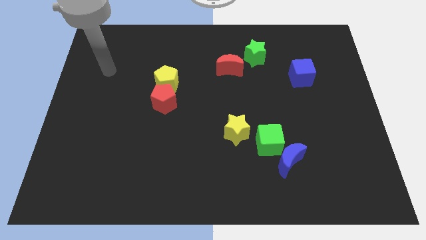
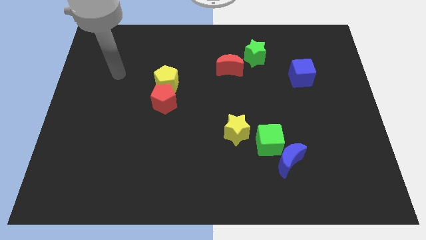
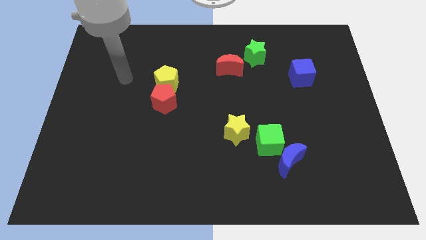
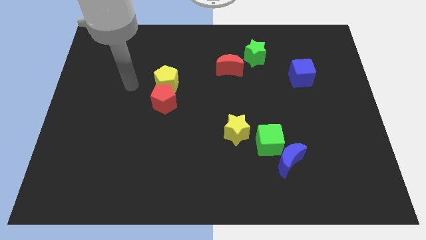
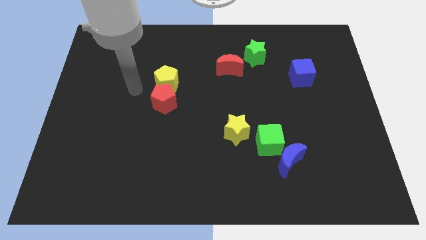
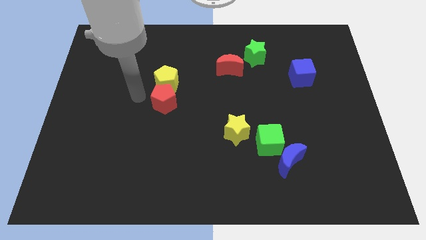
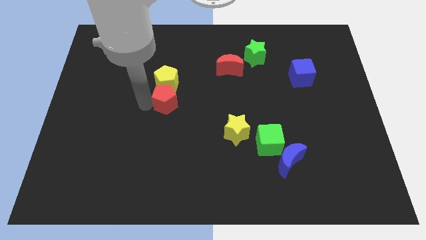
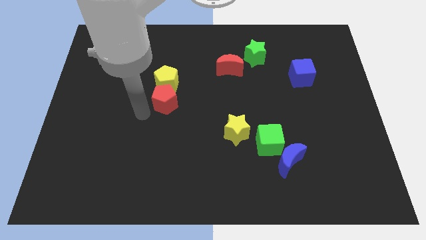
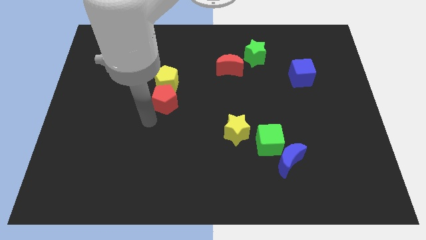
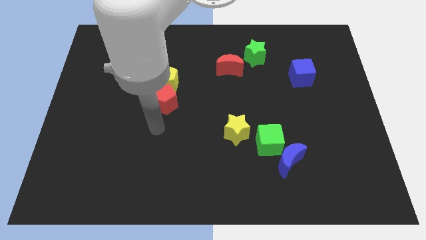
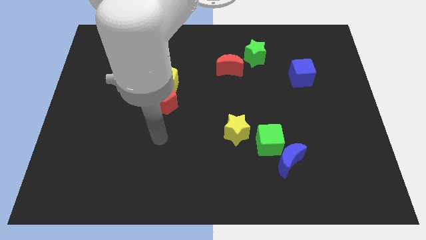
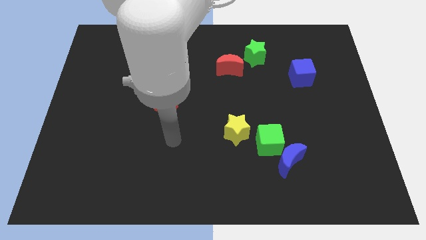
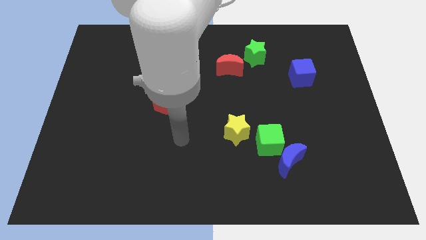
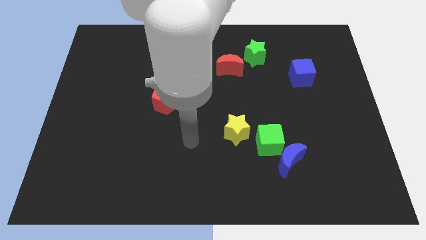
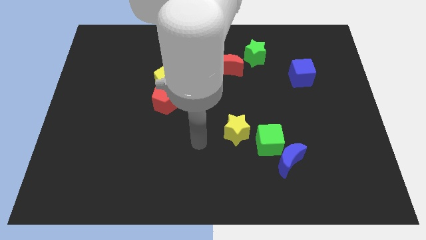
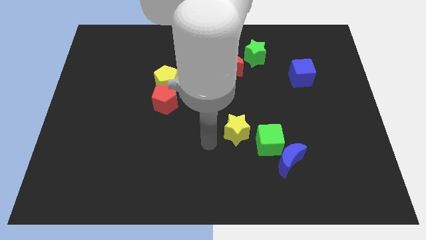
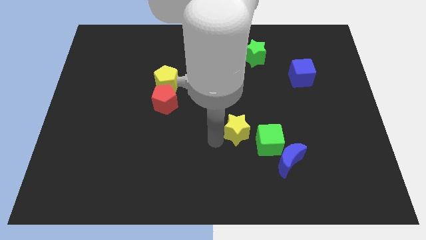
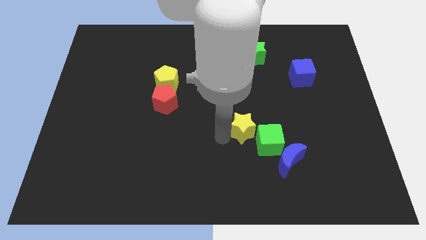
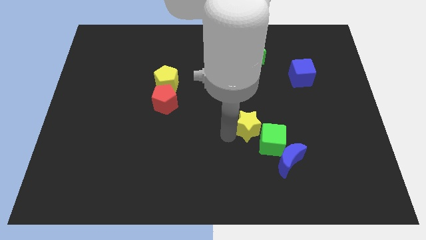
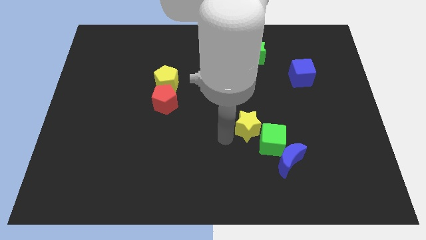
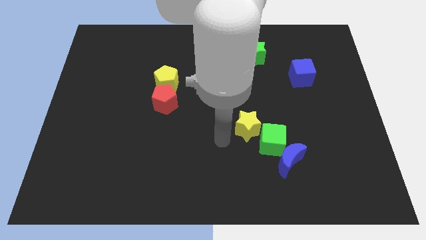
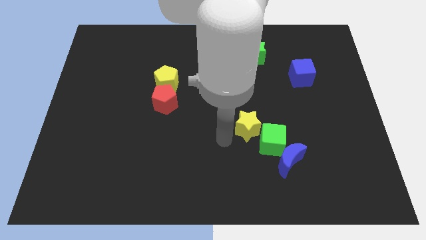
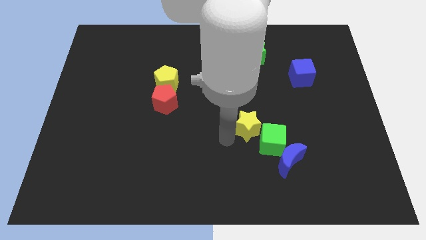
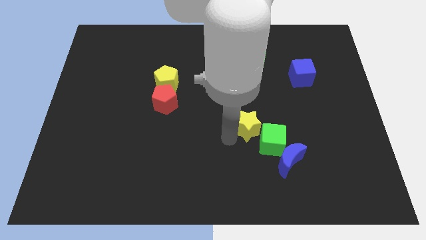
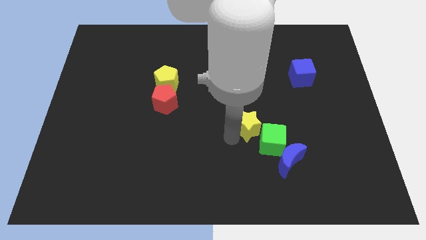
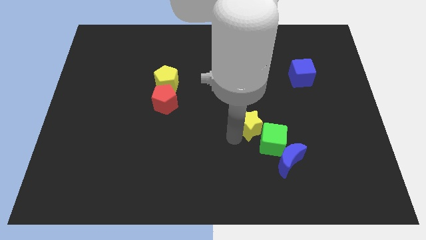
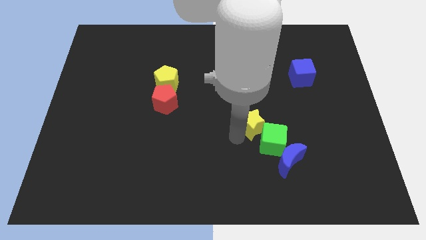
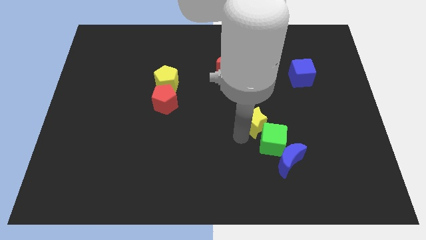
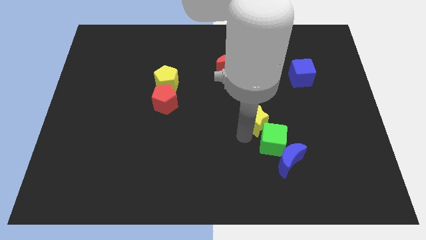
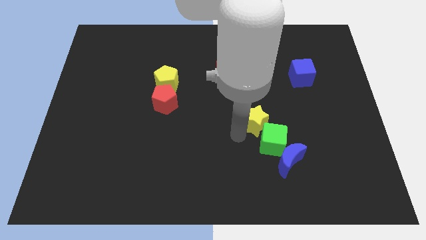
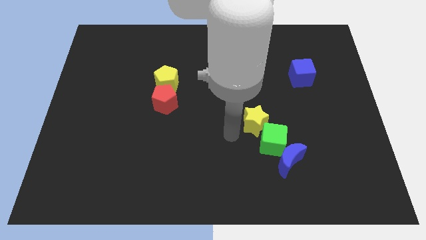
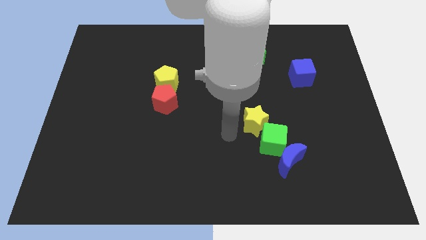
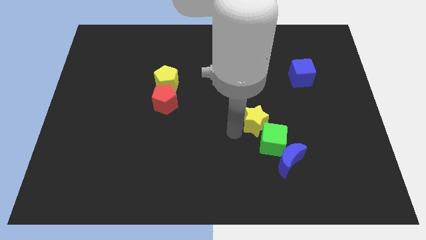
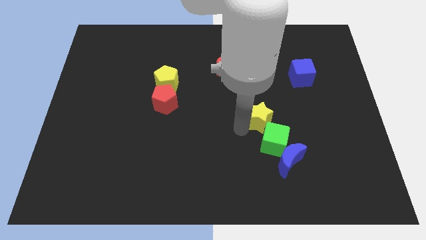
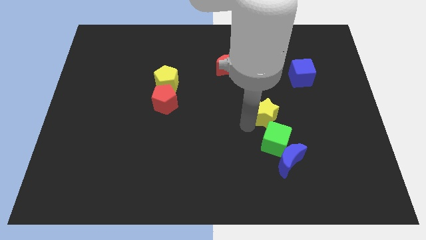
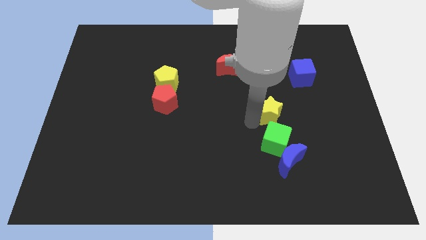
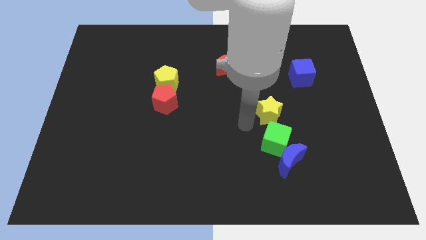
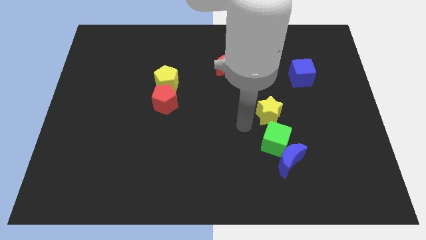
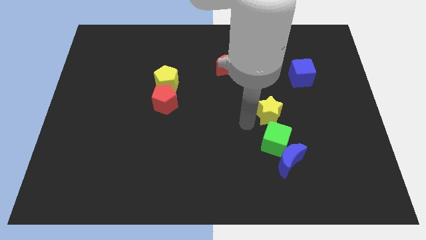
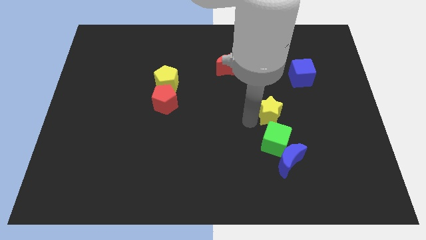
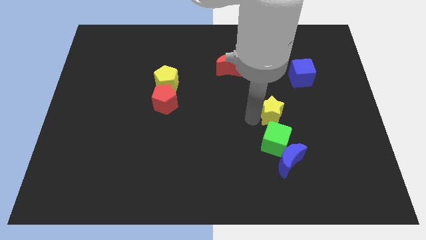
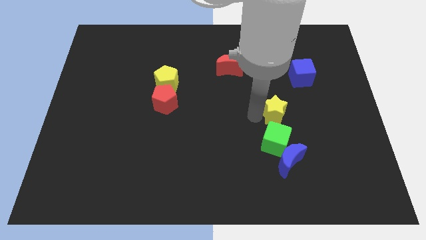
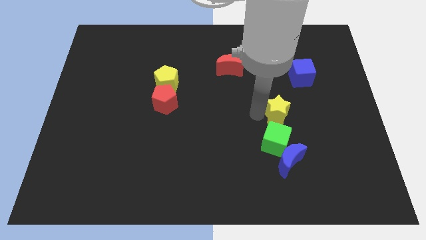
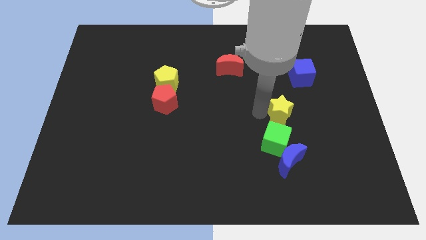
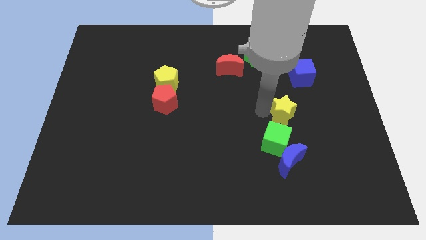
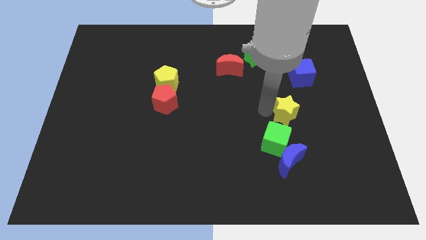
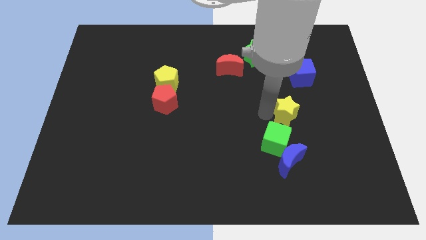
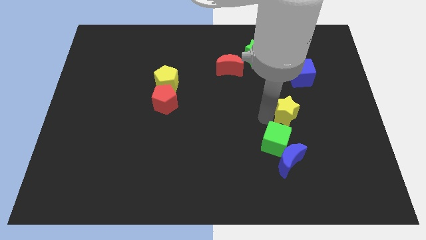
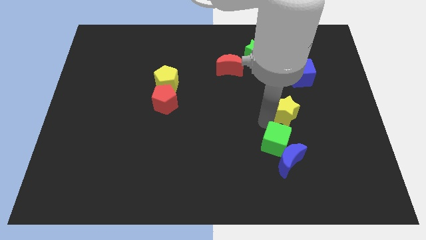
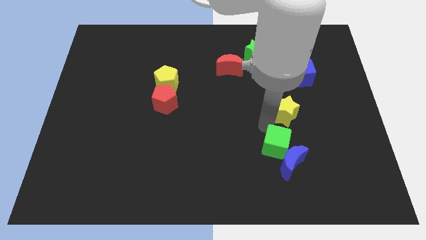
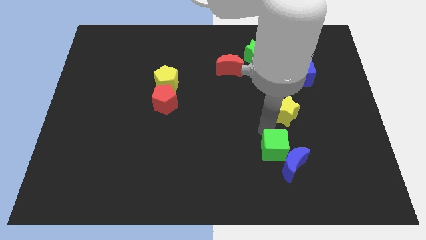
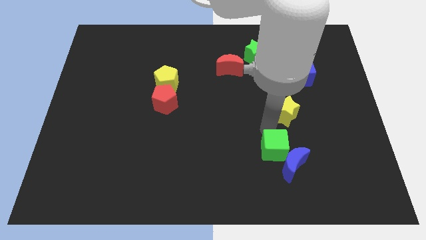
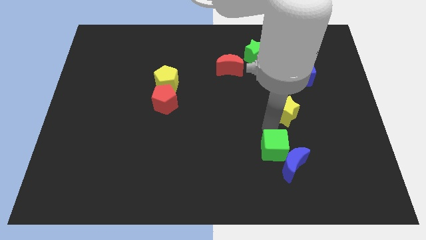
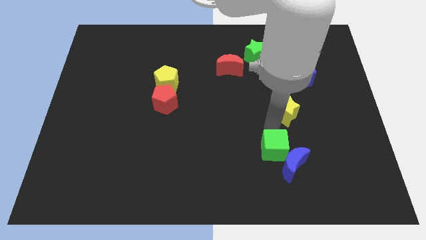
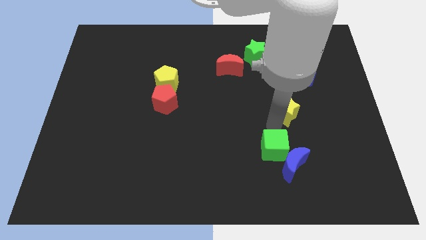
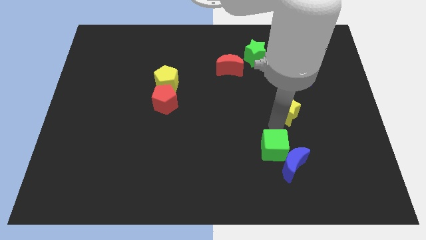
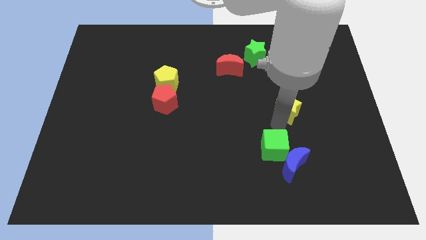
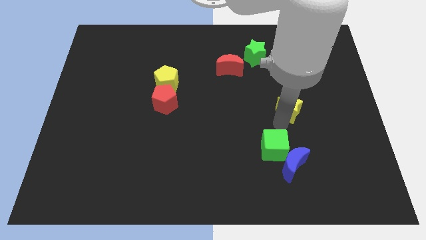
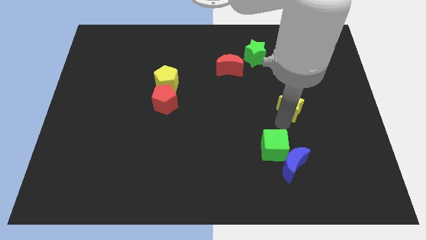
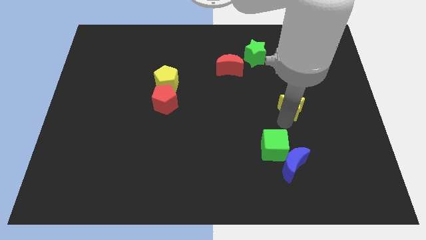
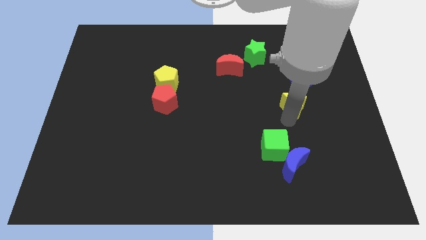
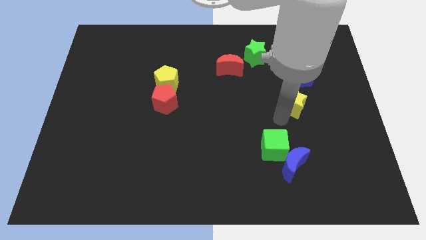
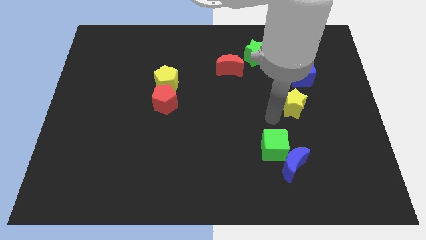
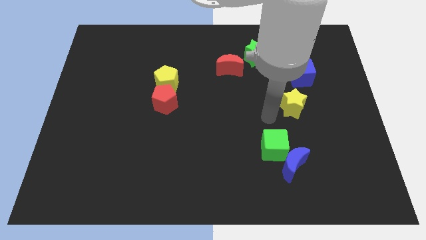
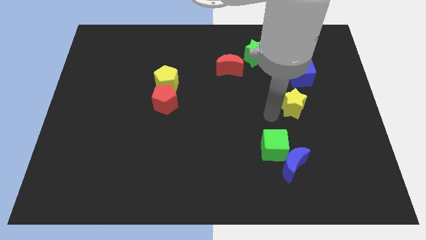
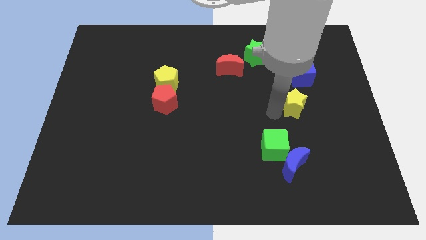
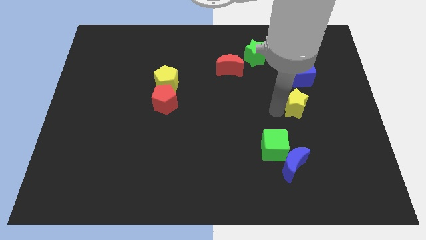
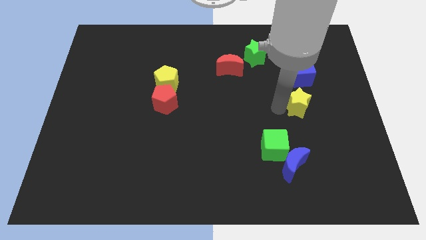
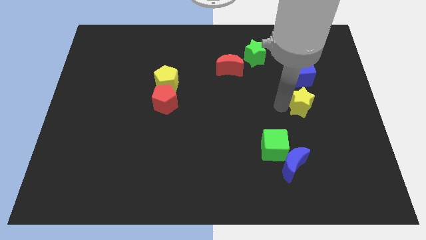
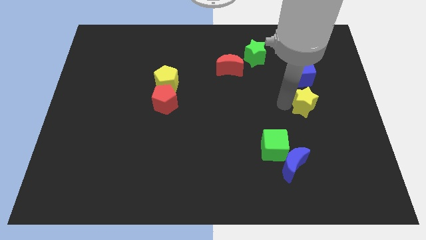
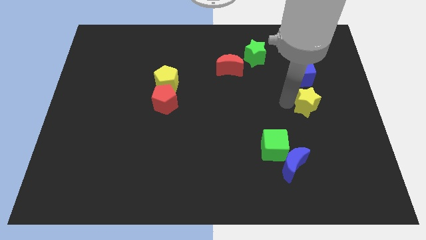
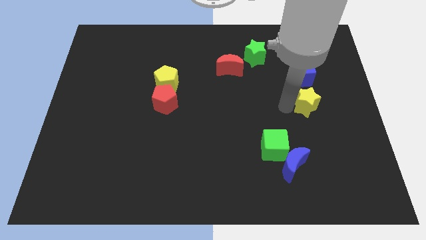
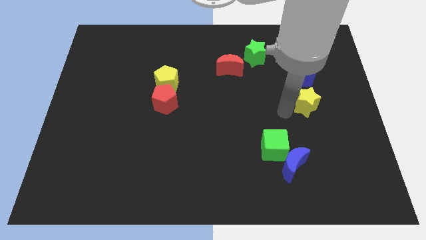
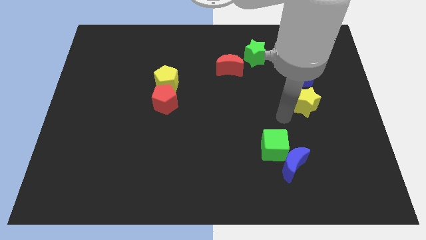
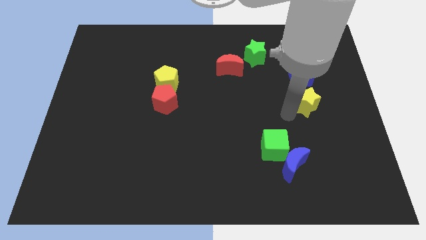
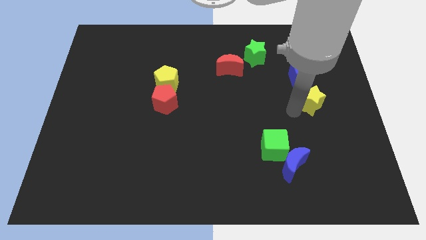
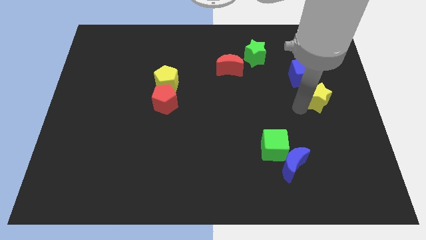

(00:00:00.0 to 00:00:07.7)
push the yellow star diagonally down and to the right of the blue cube
